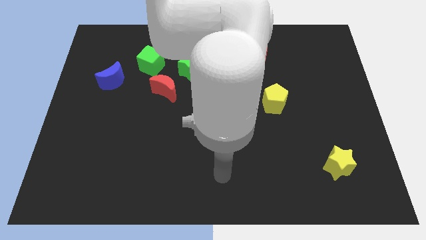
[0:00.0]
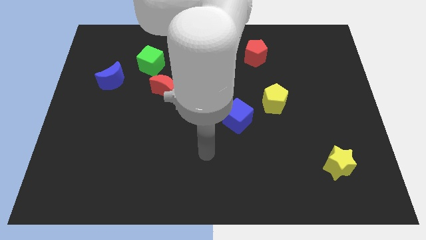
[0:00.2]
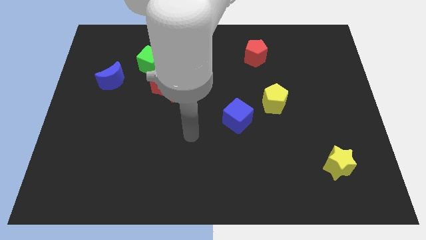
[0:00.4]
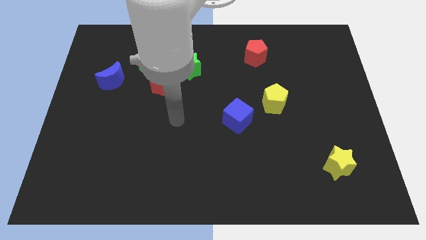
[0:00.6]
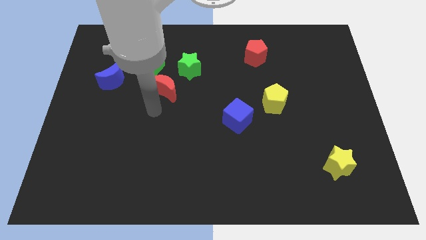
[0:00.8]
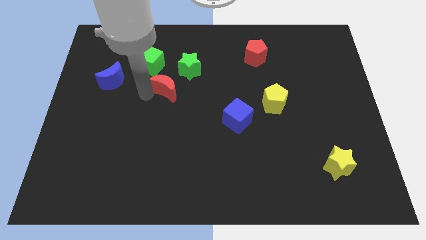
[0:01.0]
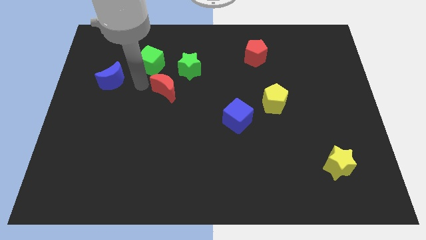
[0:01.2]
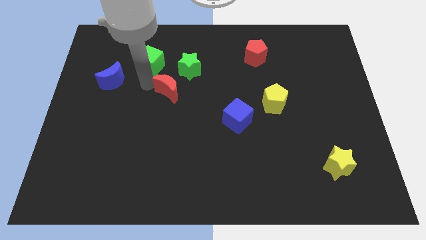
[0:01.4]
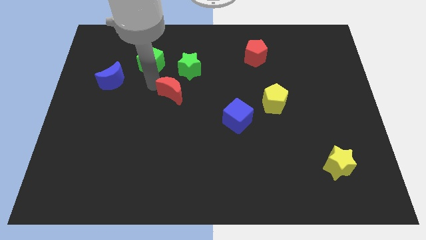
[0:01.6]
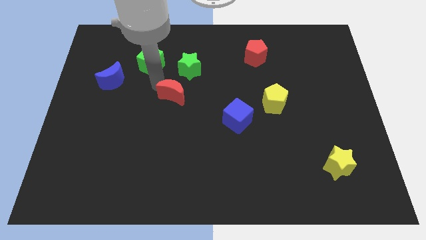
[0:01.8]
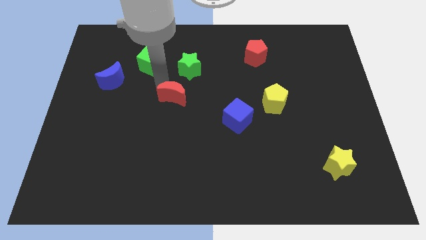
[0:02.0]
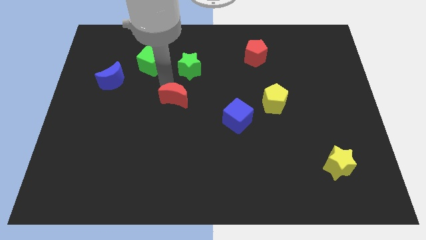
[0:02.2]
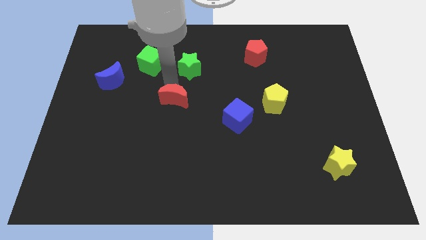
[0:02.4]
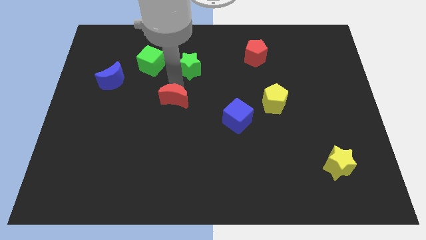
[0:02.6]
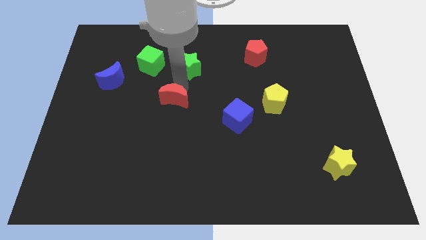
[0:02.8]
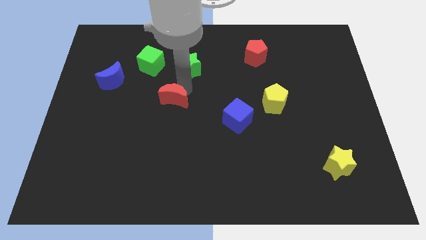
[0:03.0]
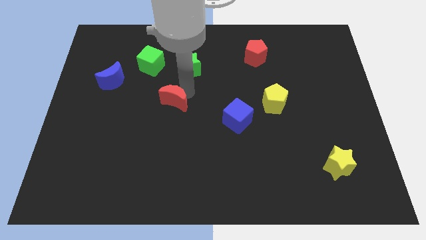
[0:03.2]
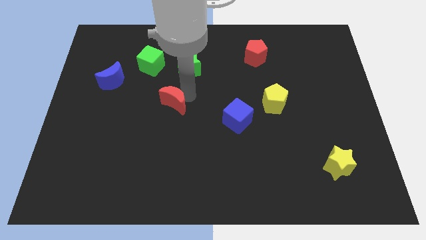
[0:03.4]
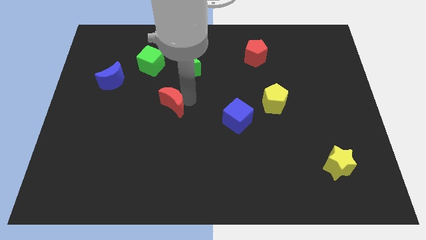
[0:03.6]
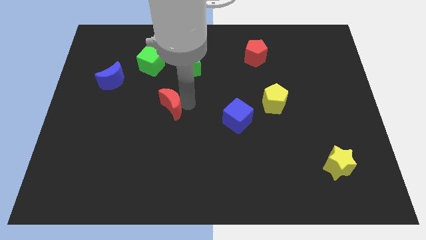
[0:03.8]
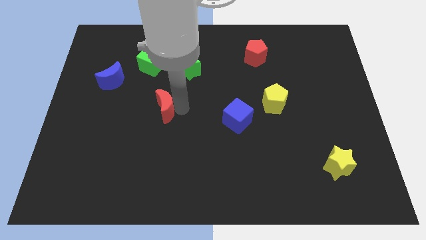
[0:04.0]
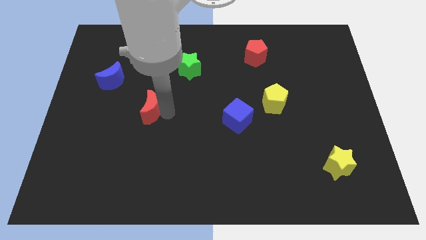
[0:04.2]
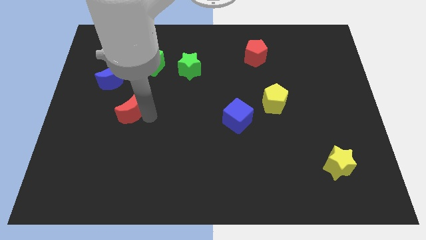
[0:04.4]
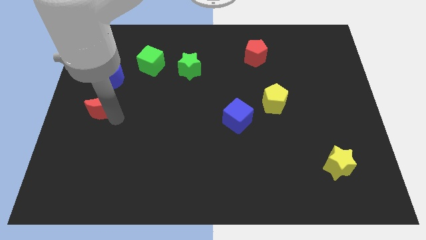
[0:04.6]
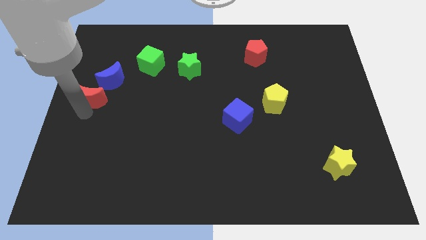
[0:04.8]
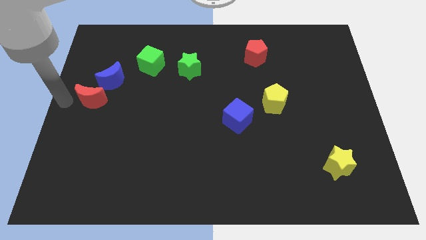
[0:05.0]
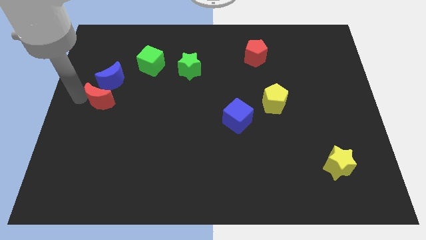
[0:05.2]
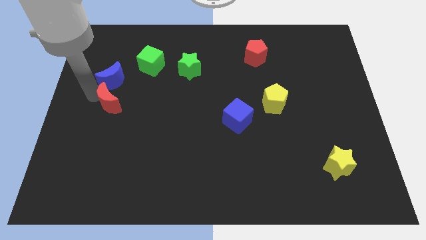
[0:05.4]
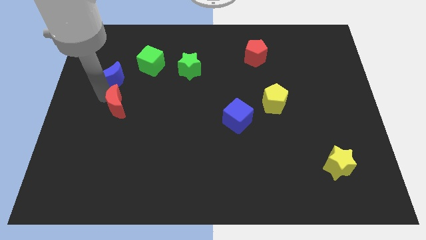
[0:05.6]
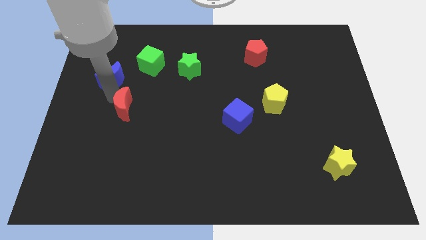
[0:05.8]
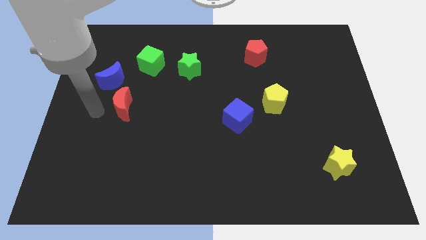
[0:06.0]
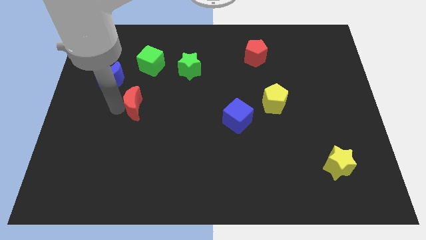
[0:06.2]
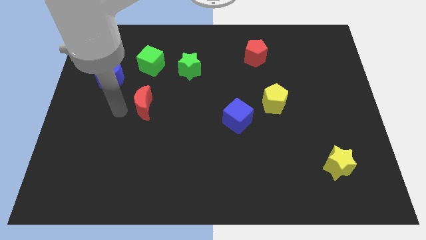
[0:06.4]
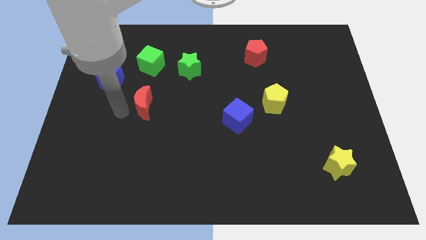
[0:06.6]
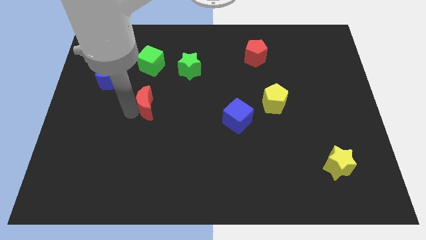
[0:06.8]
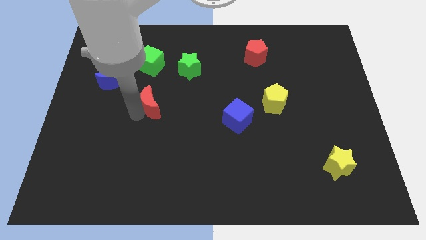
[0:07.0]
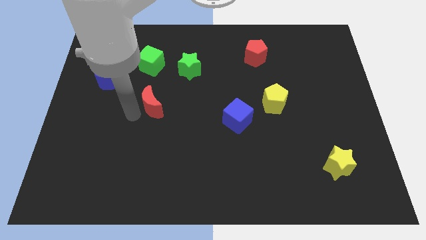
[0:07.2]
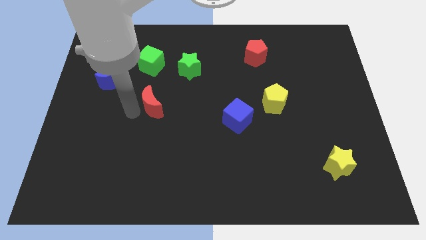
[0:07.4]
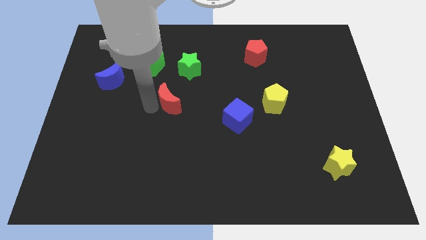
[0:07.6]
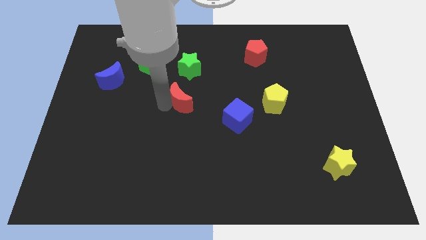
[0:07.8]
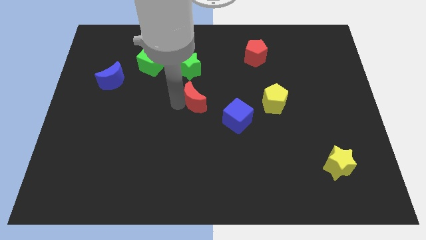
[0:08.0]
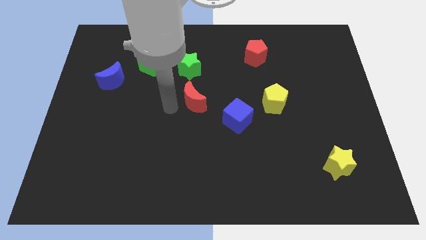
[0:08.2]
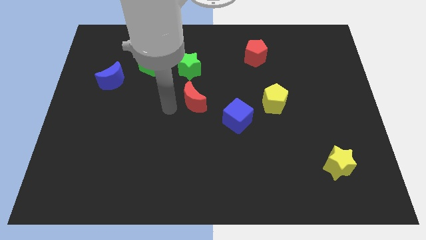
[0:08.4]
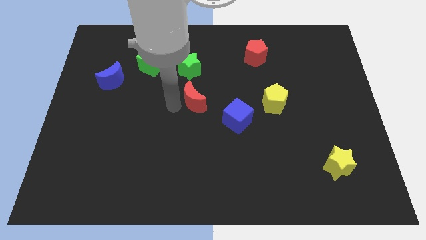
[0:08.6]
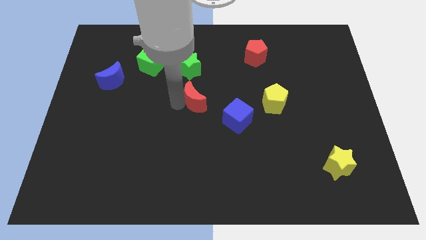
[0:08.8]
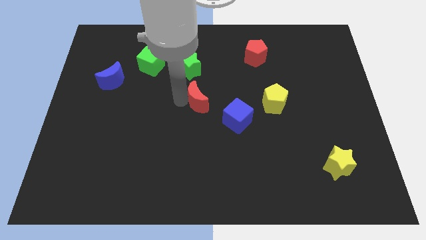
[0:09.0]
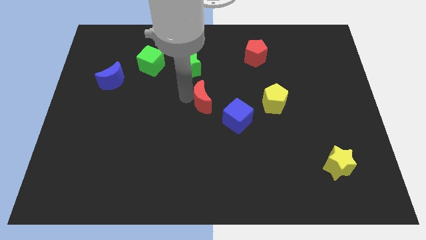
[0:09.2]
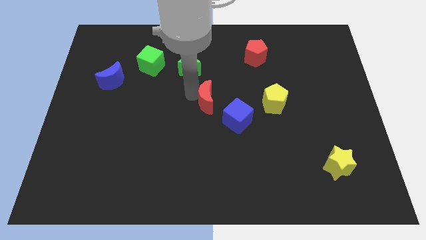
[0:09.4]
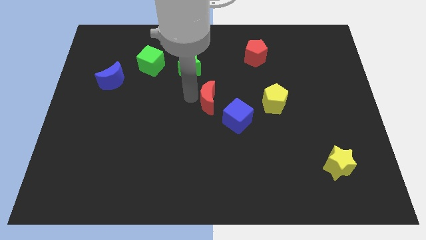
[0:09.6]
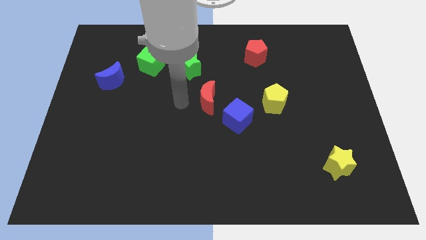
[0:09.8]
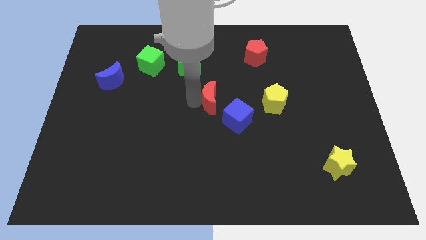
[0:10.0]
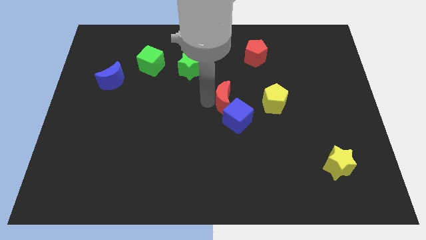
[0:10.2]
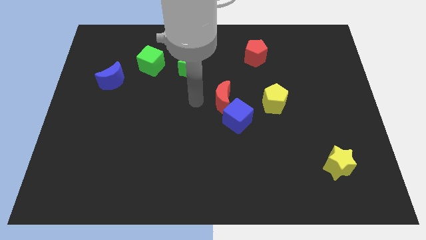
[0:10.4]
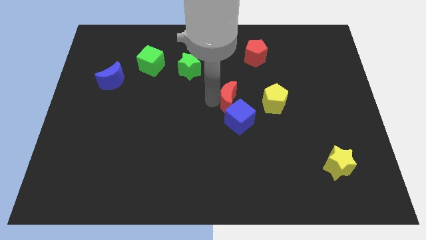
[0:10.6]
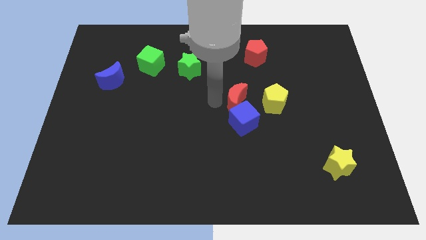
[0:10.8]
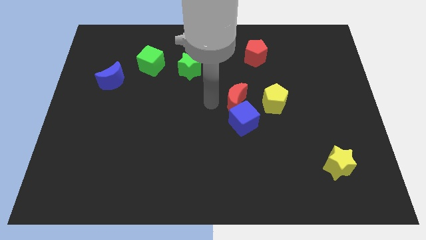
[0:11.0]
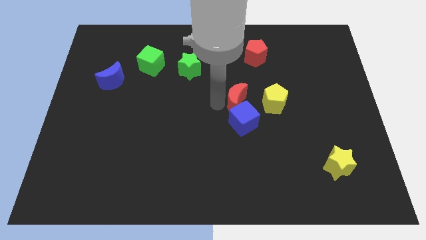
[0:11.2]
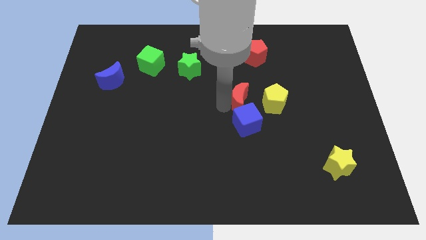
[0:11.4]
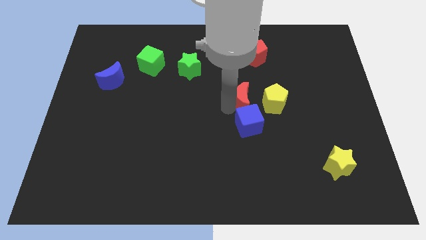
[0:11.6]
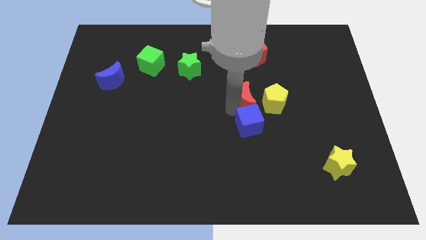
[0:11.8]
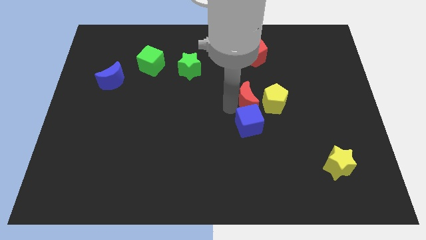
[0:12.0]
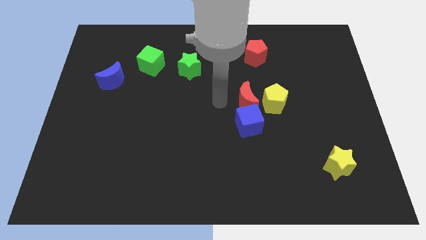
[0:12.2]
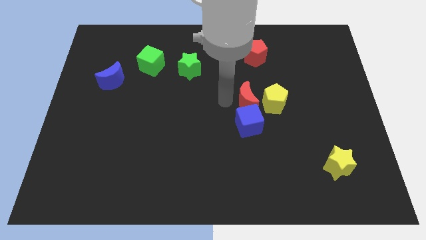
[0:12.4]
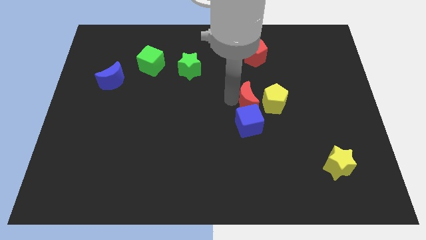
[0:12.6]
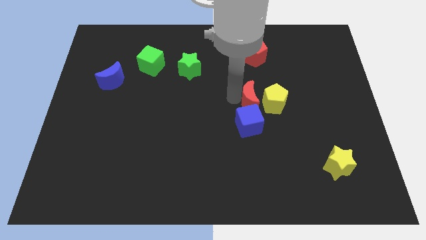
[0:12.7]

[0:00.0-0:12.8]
move the red moon next to the yellow pentagon
